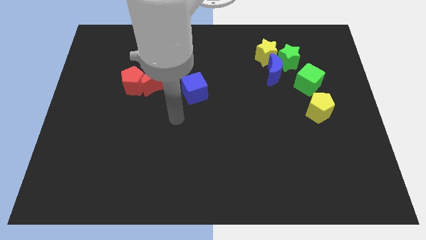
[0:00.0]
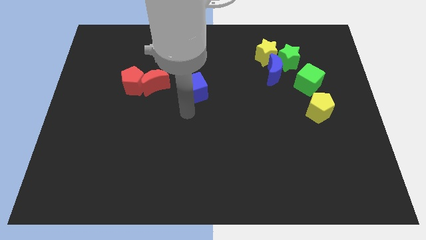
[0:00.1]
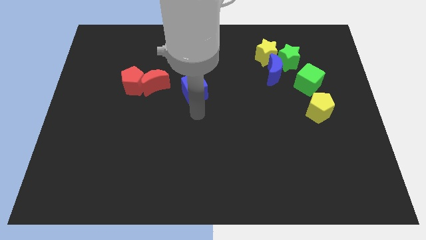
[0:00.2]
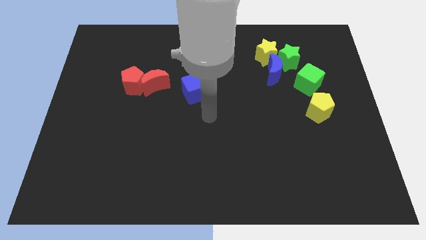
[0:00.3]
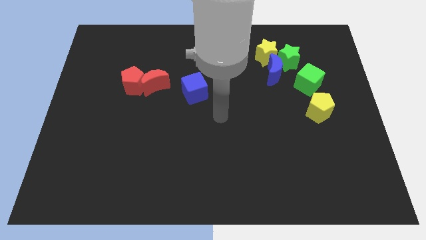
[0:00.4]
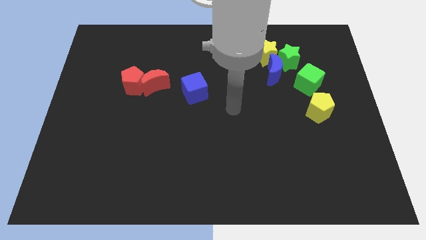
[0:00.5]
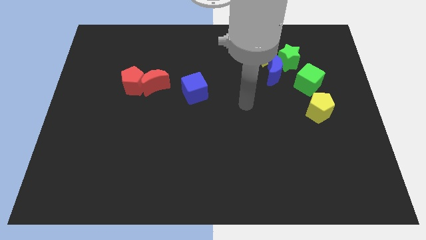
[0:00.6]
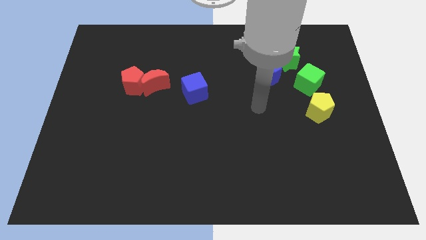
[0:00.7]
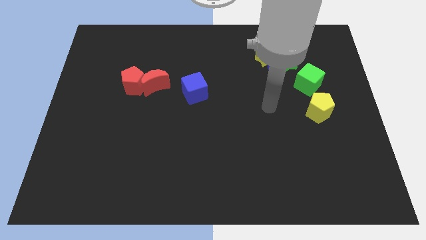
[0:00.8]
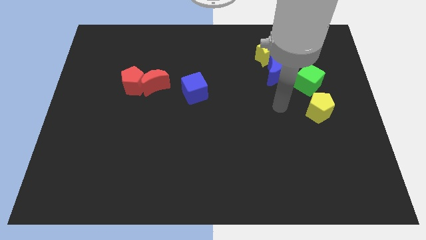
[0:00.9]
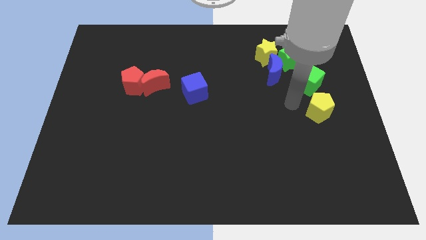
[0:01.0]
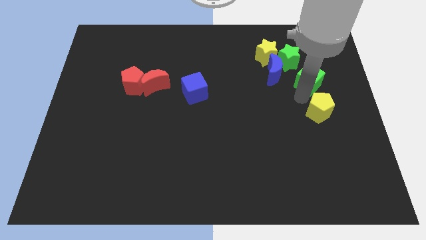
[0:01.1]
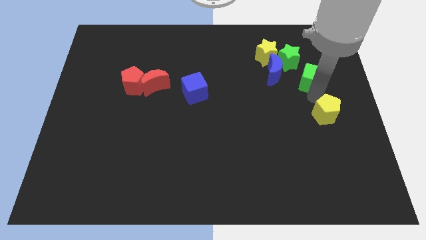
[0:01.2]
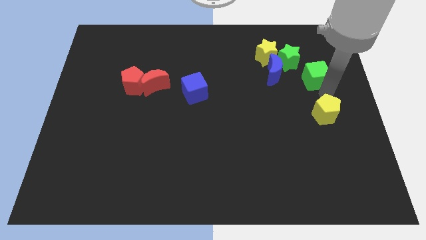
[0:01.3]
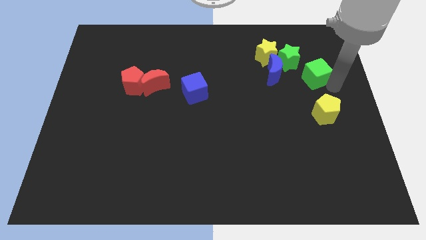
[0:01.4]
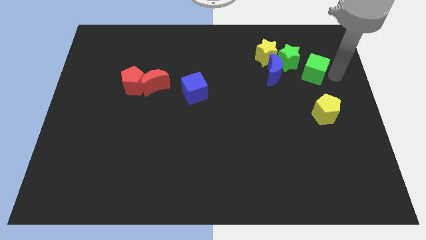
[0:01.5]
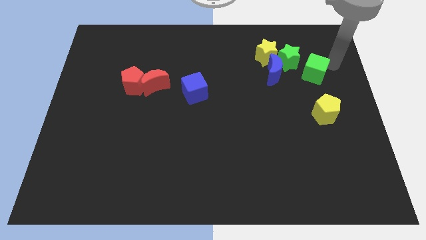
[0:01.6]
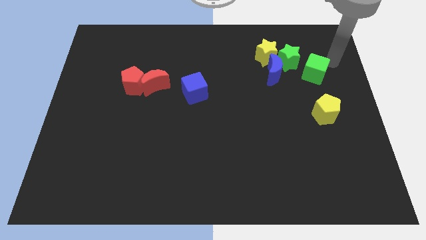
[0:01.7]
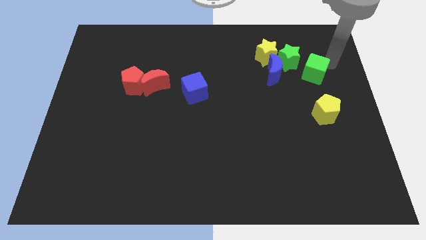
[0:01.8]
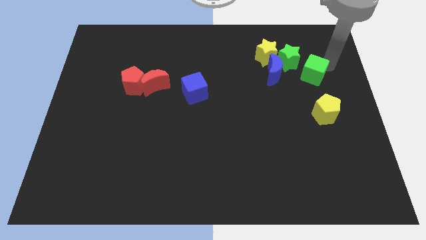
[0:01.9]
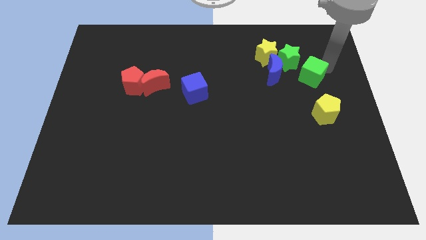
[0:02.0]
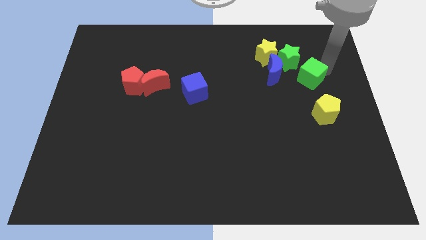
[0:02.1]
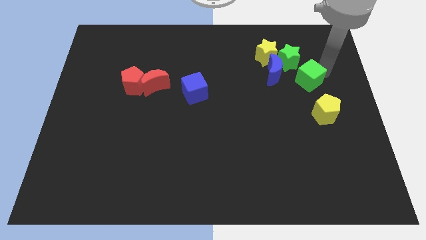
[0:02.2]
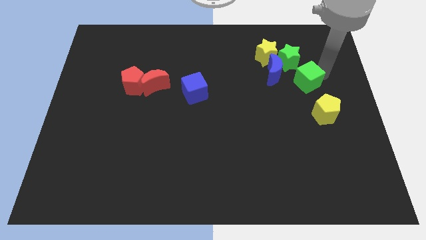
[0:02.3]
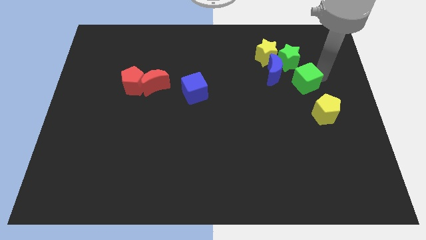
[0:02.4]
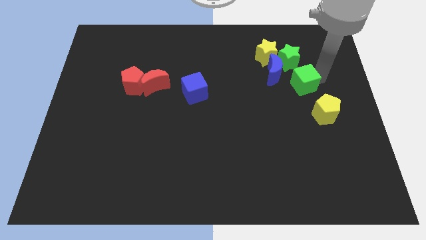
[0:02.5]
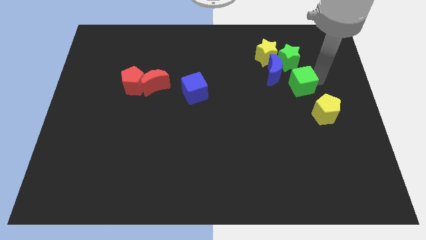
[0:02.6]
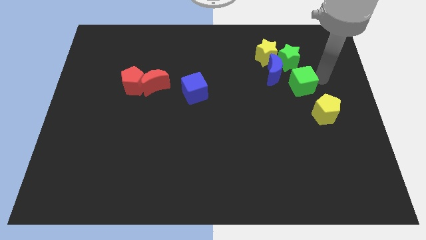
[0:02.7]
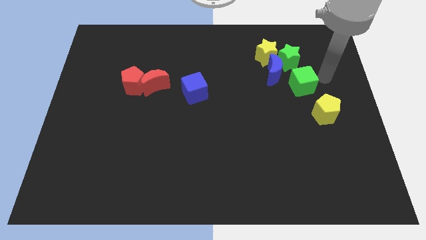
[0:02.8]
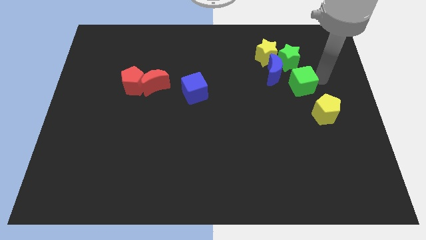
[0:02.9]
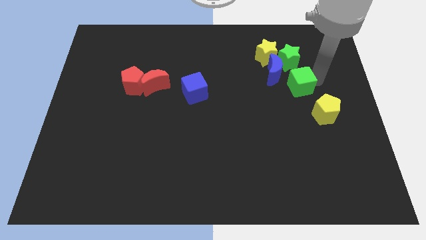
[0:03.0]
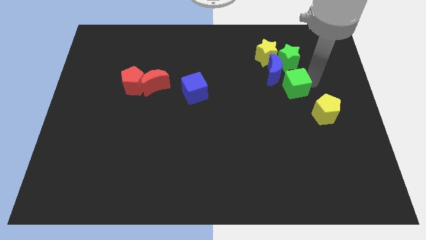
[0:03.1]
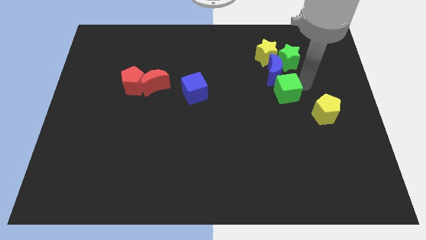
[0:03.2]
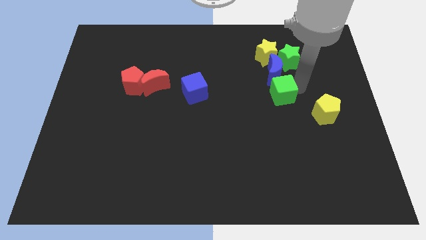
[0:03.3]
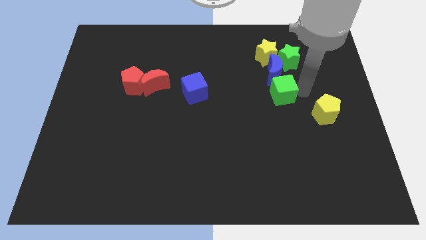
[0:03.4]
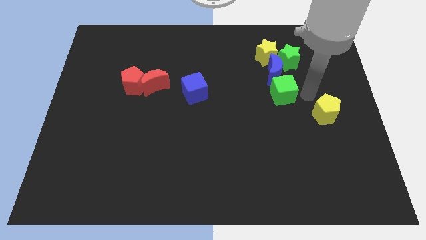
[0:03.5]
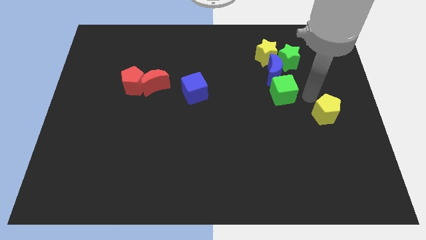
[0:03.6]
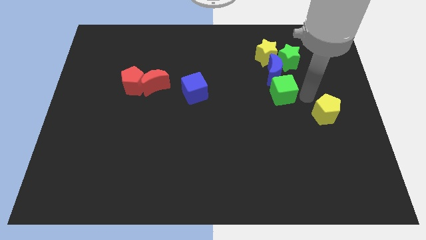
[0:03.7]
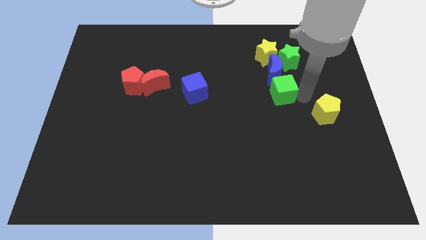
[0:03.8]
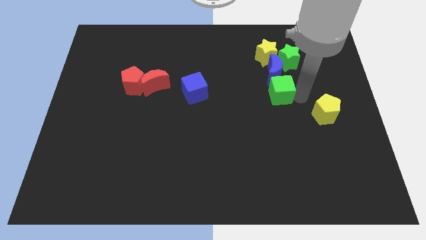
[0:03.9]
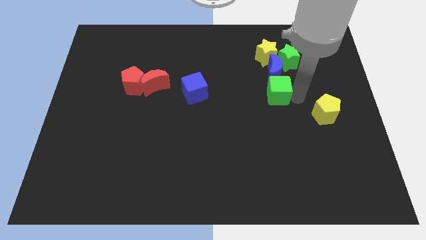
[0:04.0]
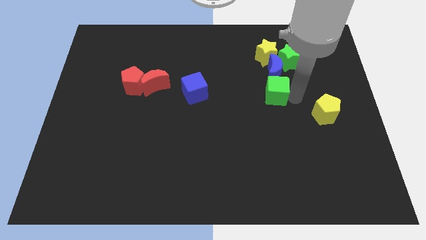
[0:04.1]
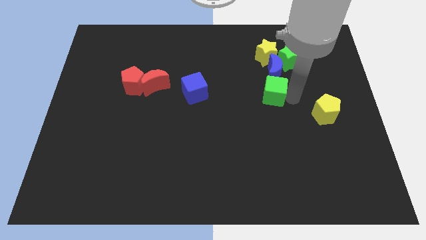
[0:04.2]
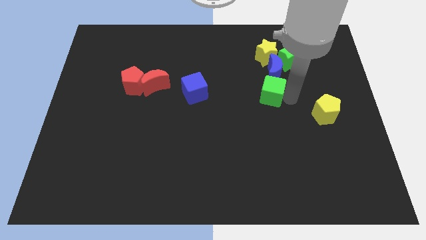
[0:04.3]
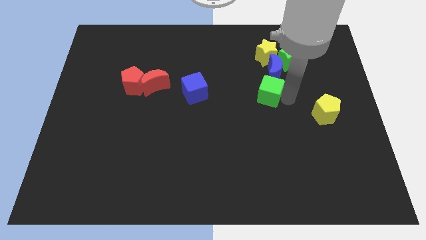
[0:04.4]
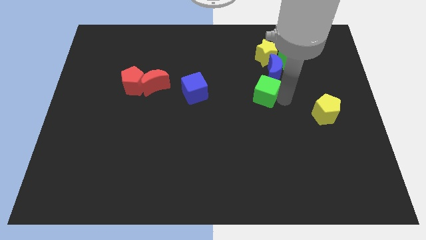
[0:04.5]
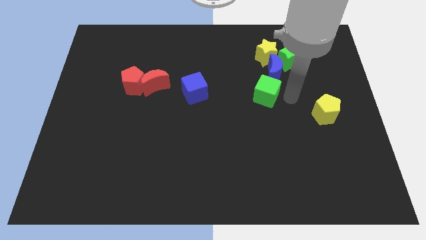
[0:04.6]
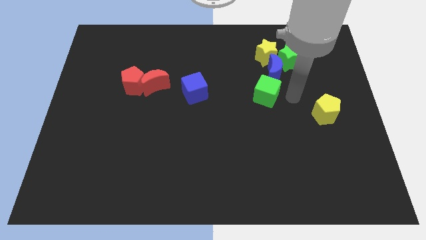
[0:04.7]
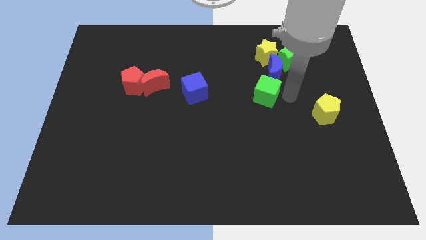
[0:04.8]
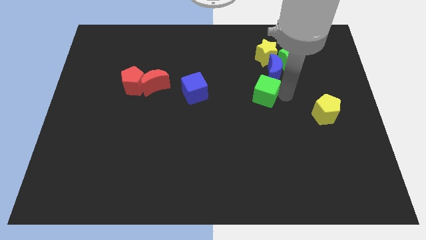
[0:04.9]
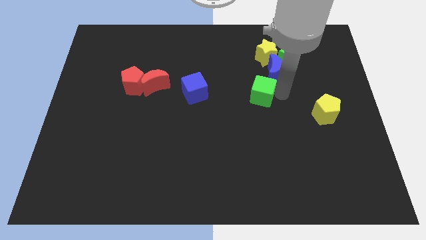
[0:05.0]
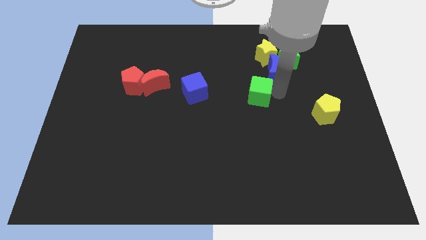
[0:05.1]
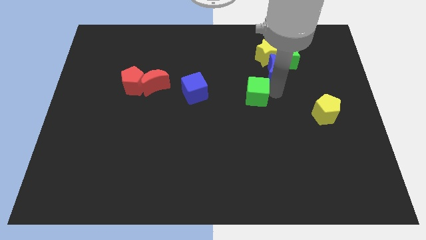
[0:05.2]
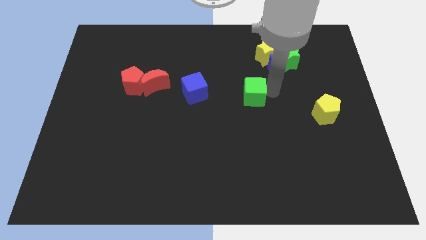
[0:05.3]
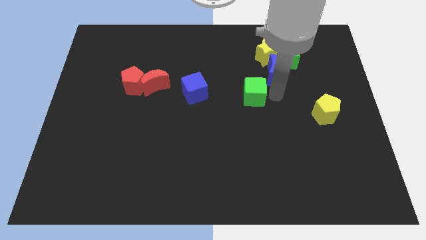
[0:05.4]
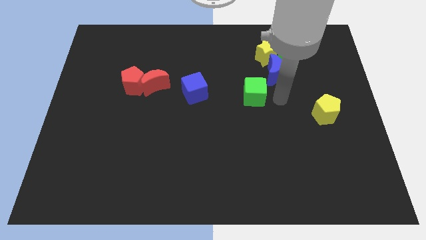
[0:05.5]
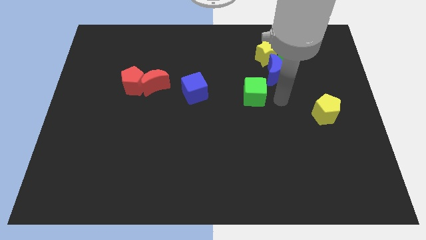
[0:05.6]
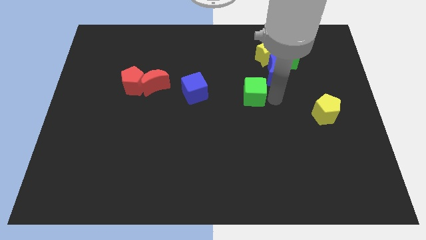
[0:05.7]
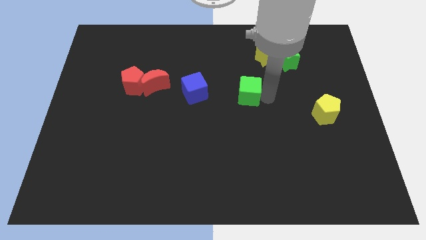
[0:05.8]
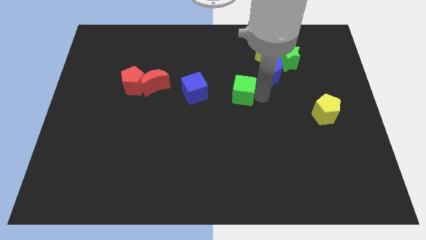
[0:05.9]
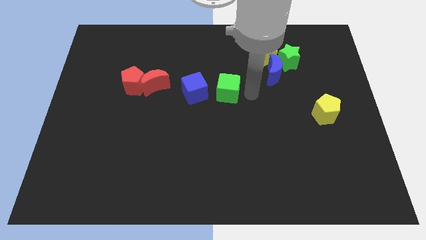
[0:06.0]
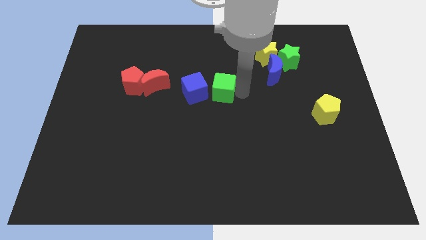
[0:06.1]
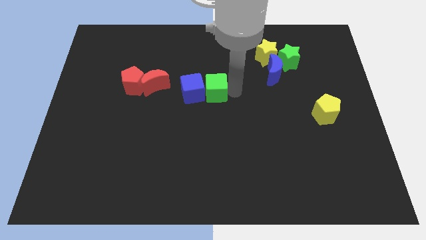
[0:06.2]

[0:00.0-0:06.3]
put the green cube towards the blue cube
